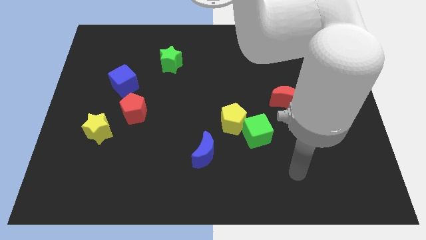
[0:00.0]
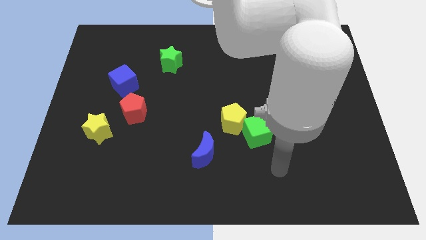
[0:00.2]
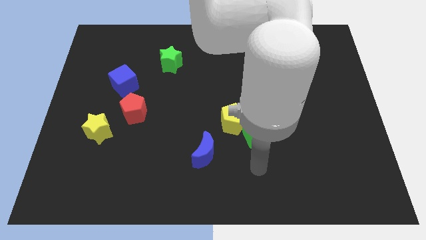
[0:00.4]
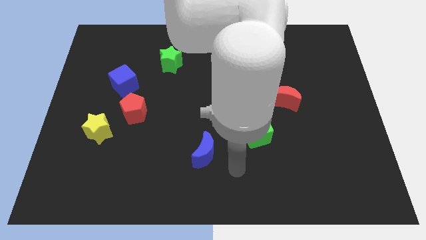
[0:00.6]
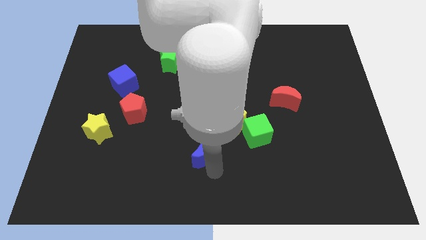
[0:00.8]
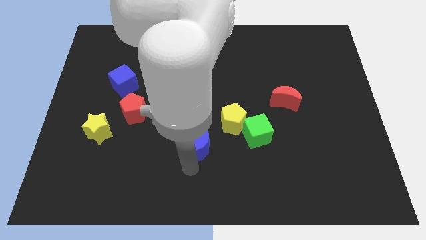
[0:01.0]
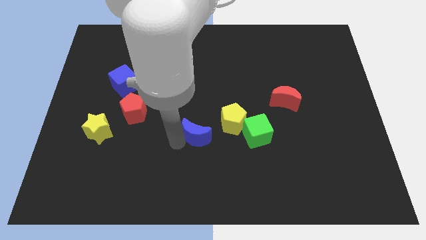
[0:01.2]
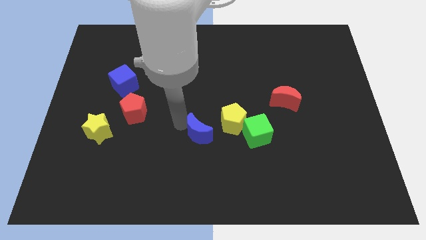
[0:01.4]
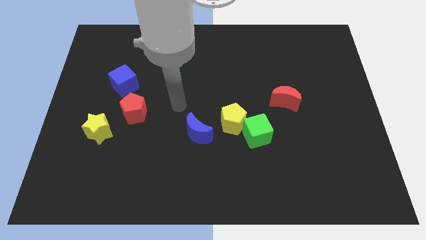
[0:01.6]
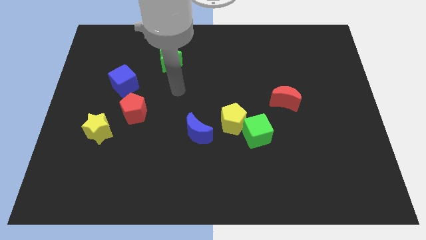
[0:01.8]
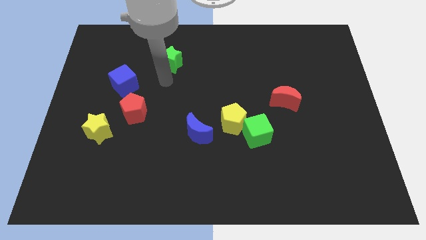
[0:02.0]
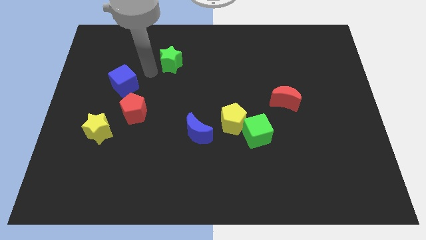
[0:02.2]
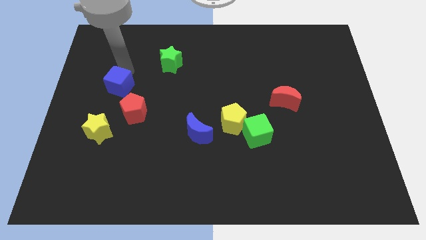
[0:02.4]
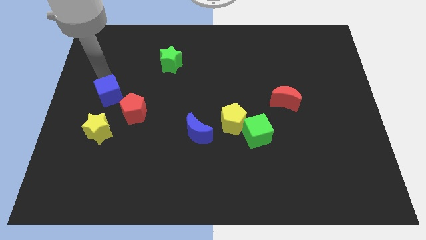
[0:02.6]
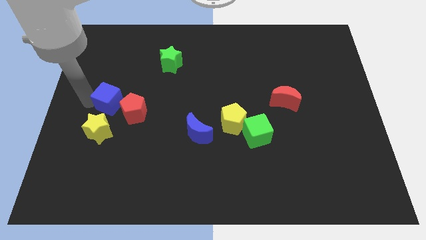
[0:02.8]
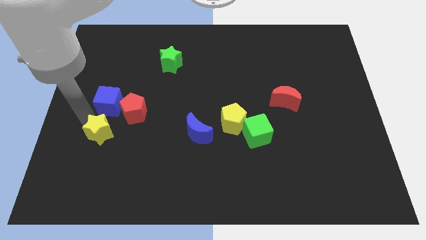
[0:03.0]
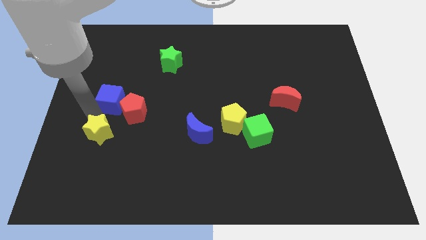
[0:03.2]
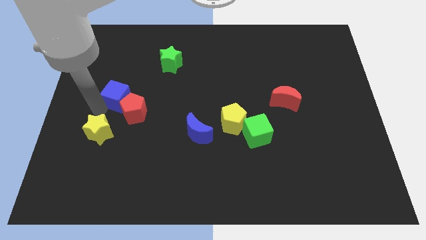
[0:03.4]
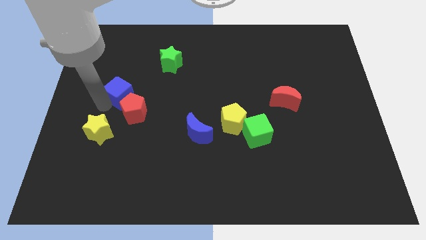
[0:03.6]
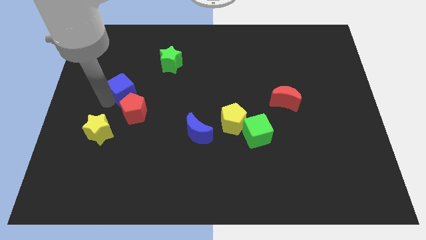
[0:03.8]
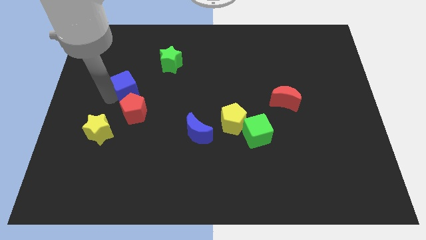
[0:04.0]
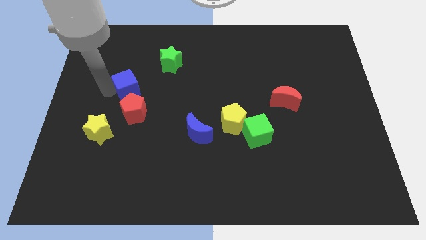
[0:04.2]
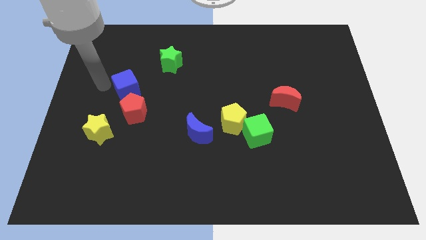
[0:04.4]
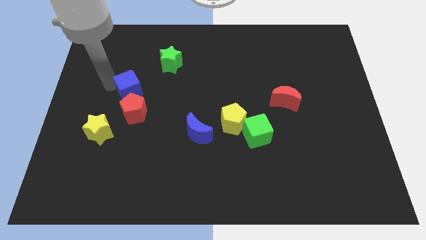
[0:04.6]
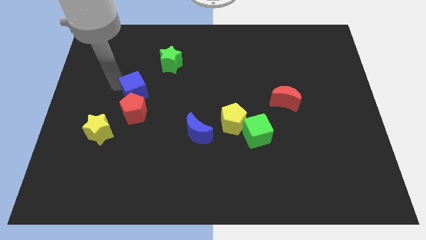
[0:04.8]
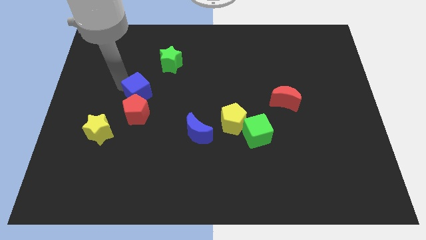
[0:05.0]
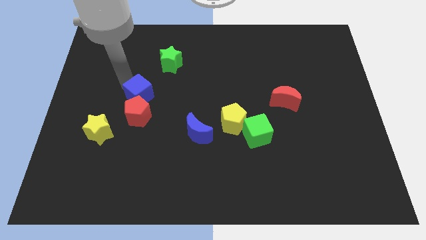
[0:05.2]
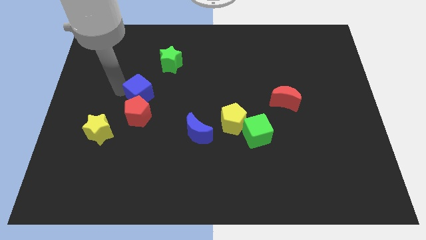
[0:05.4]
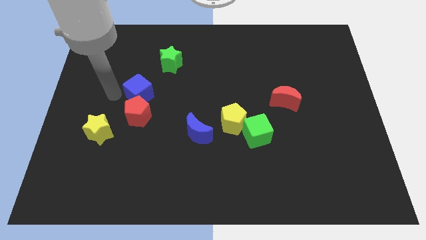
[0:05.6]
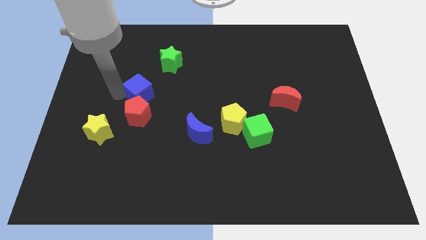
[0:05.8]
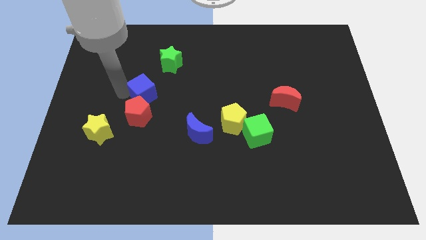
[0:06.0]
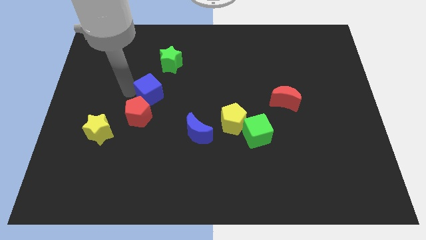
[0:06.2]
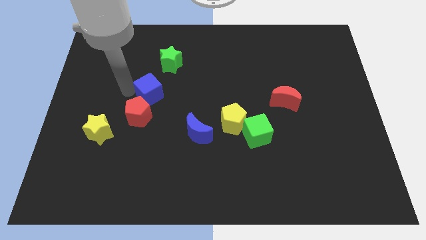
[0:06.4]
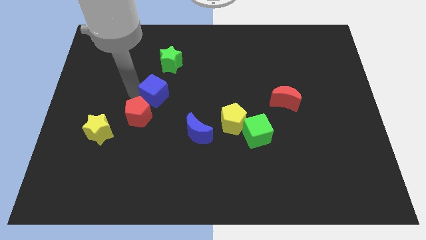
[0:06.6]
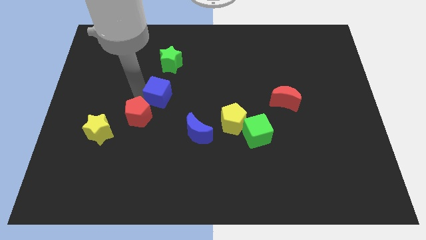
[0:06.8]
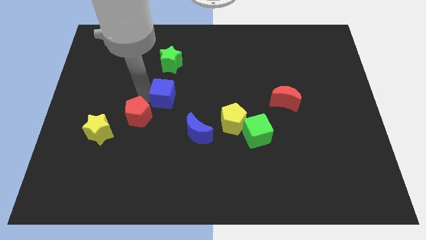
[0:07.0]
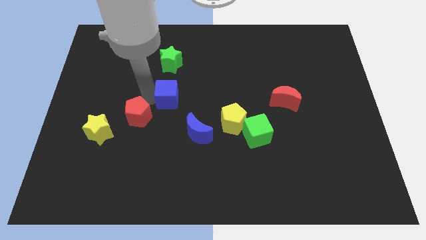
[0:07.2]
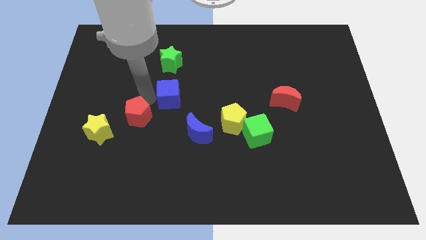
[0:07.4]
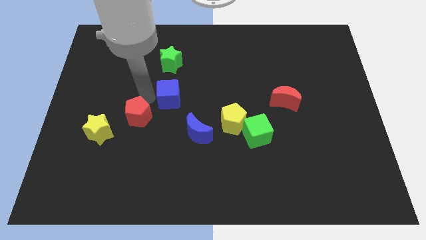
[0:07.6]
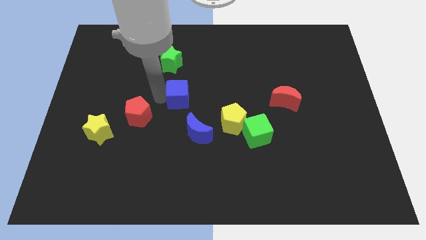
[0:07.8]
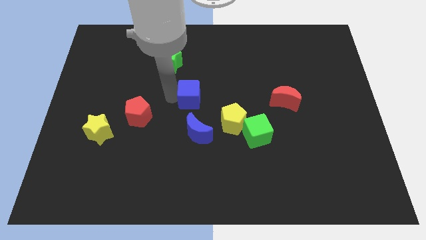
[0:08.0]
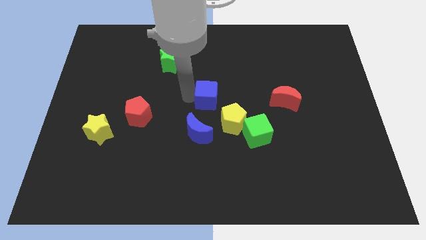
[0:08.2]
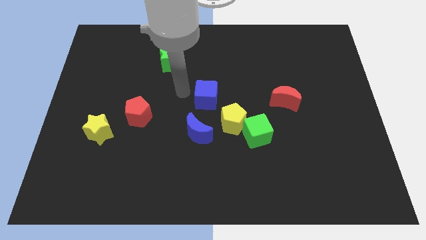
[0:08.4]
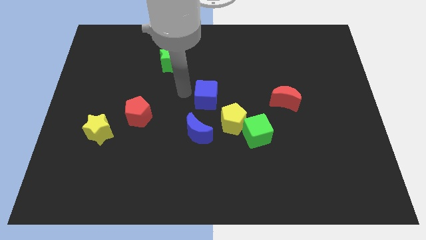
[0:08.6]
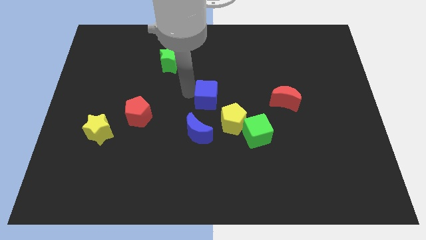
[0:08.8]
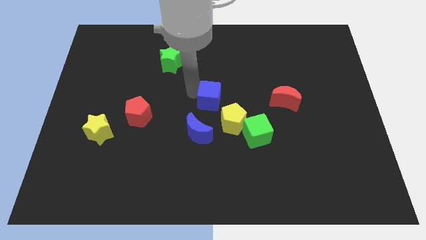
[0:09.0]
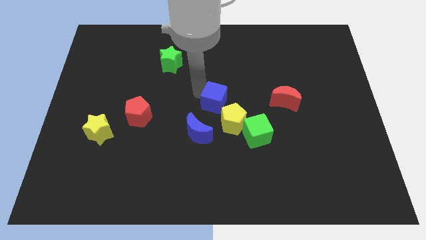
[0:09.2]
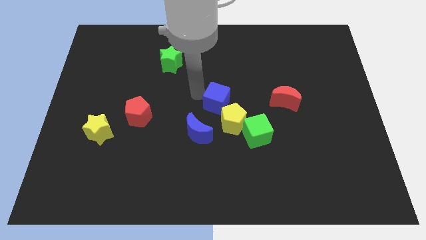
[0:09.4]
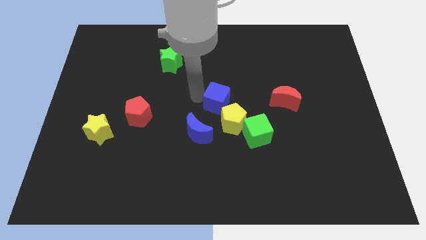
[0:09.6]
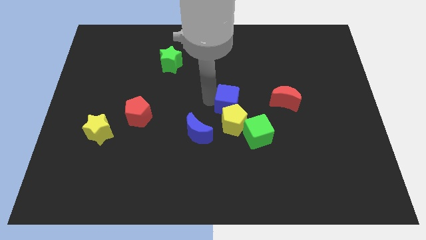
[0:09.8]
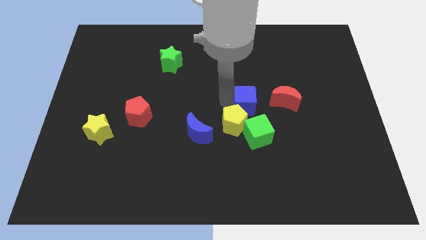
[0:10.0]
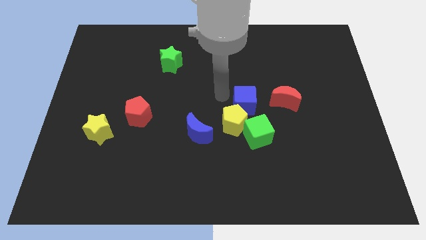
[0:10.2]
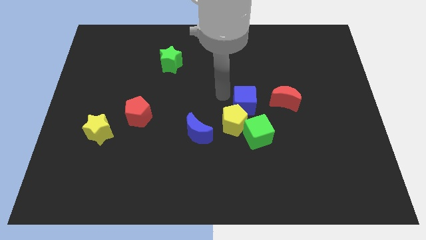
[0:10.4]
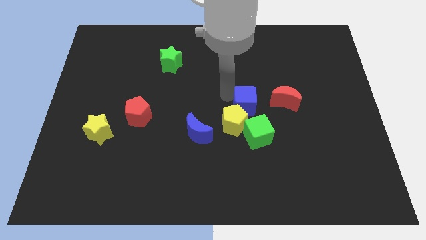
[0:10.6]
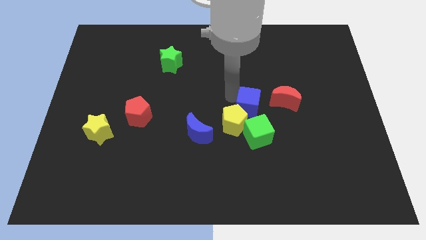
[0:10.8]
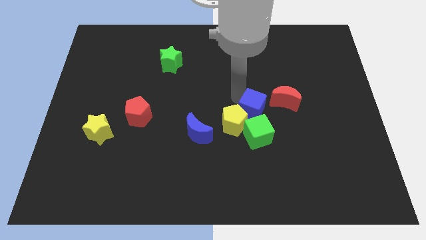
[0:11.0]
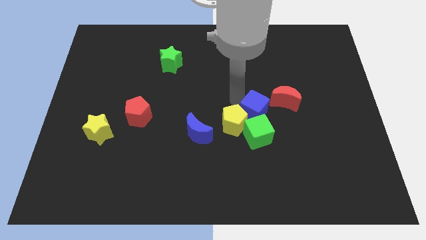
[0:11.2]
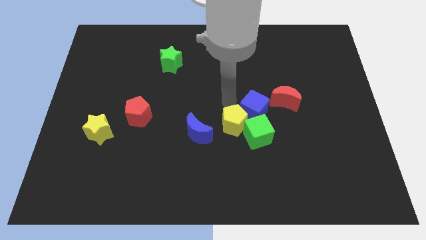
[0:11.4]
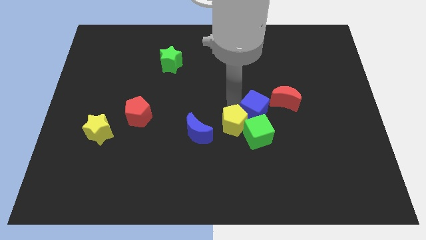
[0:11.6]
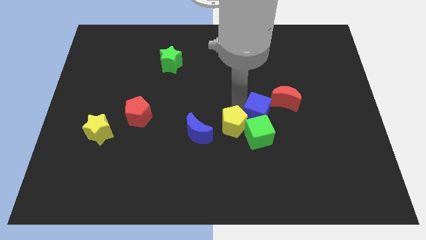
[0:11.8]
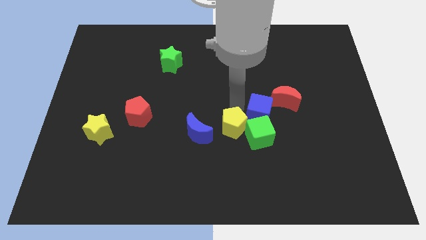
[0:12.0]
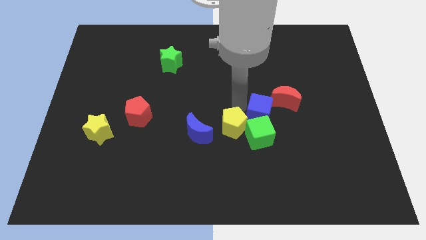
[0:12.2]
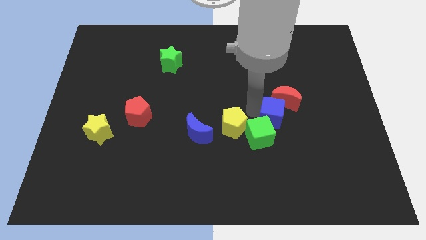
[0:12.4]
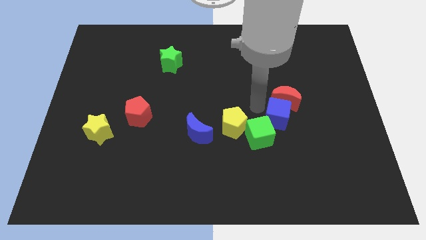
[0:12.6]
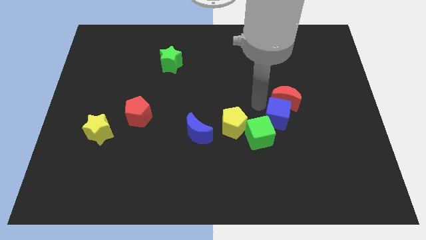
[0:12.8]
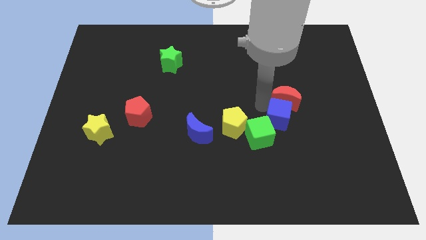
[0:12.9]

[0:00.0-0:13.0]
put the blue cube right of the green cube

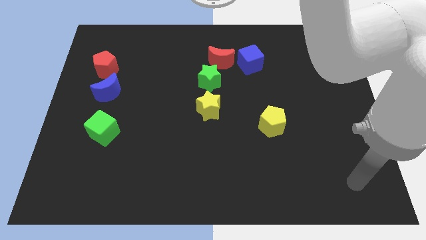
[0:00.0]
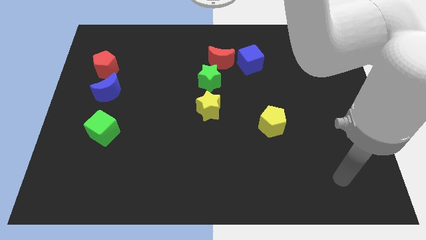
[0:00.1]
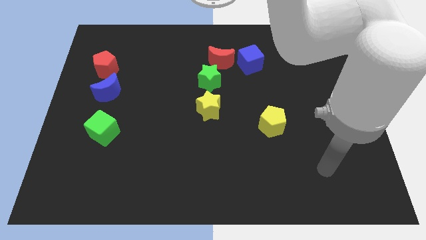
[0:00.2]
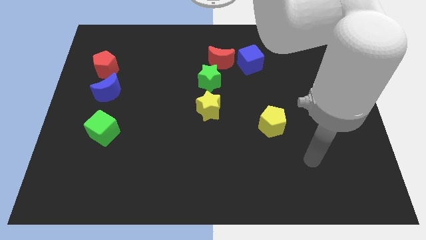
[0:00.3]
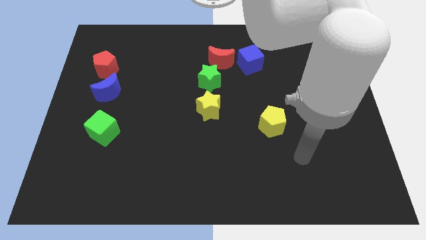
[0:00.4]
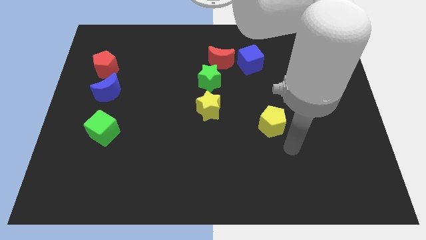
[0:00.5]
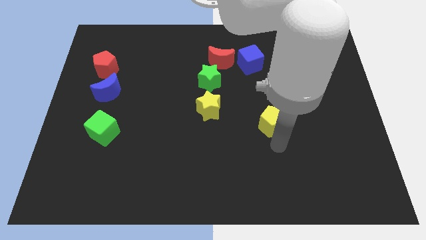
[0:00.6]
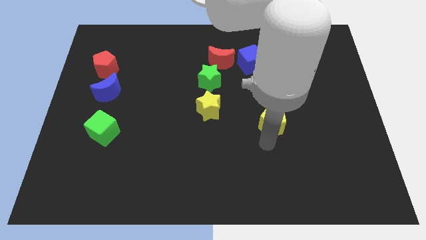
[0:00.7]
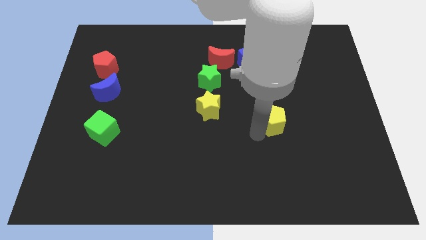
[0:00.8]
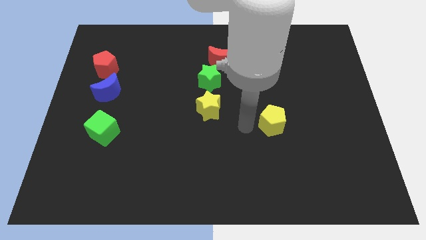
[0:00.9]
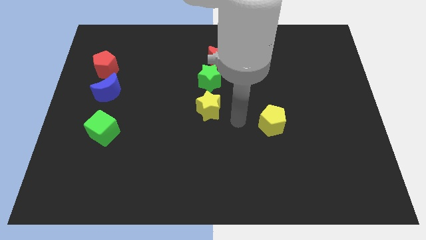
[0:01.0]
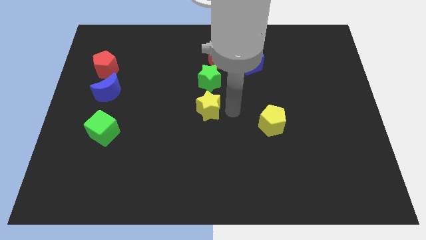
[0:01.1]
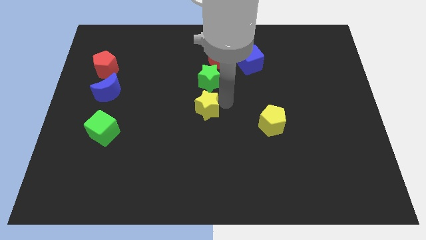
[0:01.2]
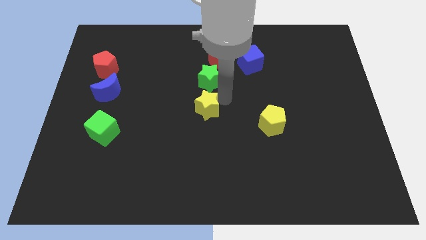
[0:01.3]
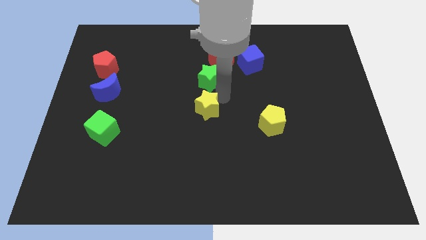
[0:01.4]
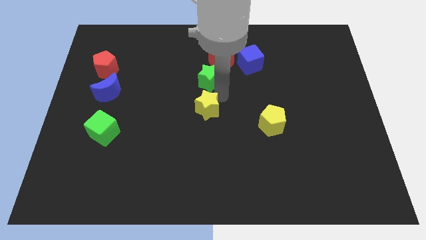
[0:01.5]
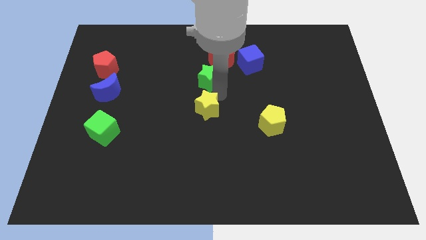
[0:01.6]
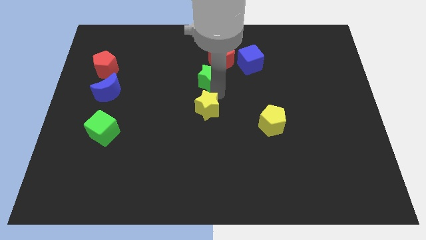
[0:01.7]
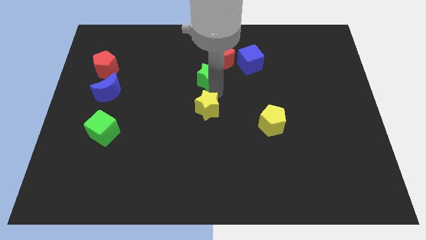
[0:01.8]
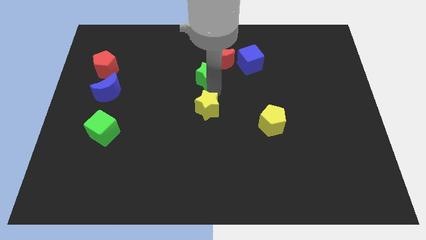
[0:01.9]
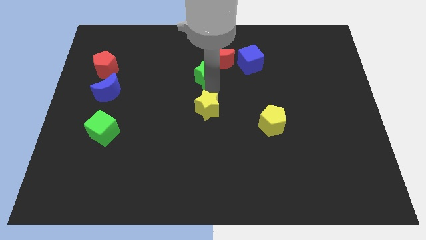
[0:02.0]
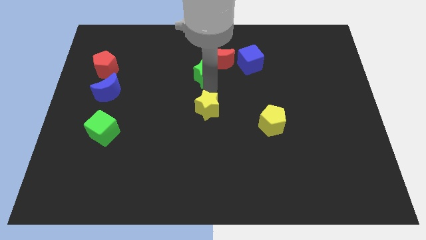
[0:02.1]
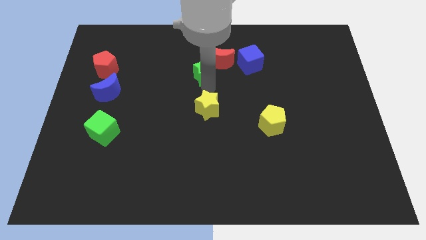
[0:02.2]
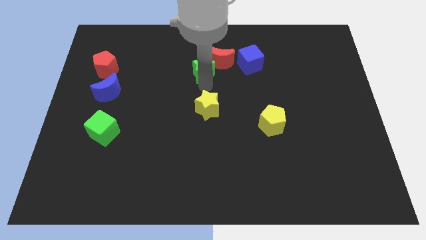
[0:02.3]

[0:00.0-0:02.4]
push the green star just left of the red moon
